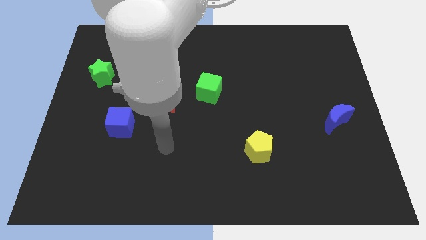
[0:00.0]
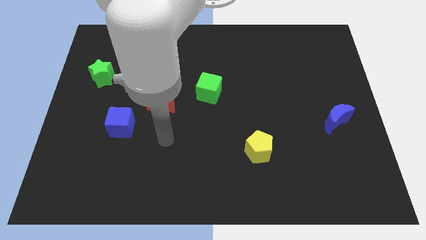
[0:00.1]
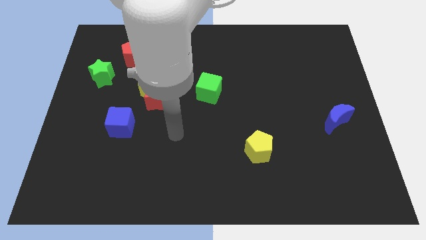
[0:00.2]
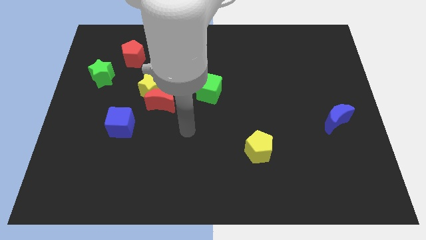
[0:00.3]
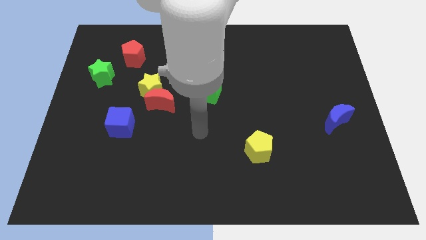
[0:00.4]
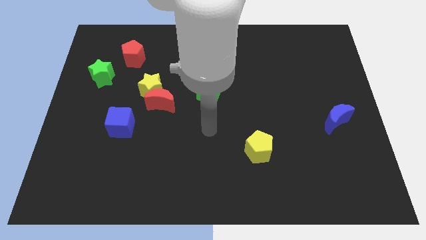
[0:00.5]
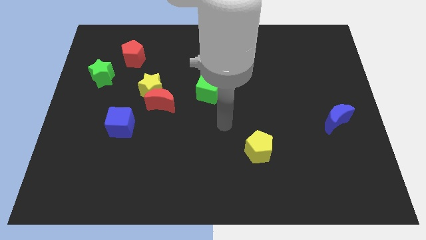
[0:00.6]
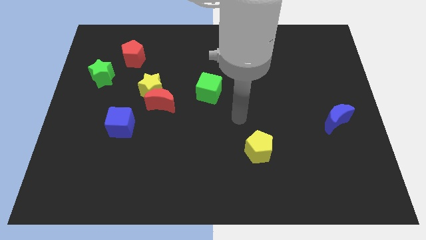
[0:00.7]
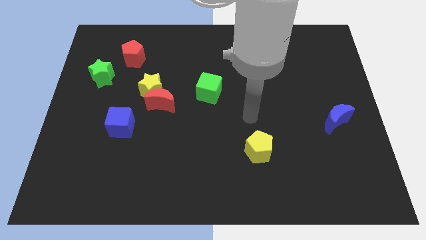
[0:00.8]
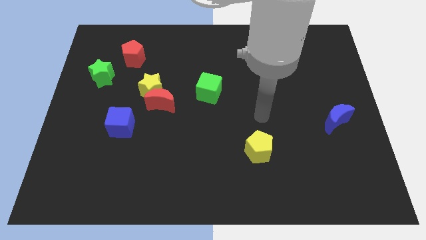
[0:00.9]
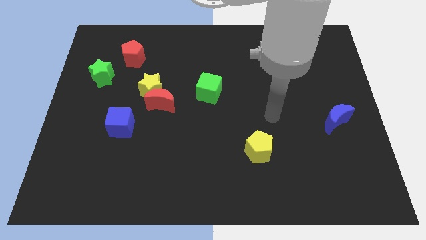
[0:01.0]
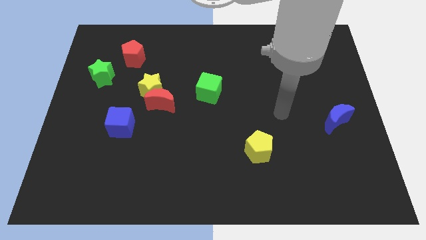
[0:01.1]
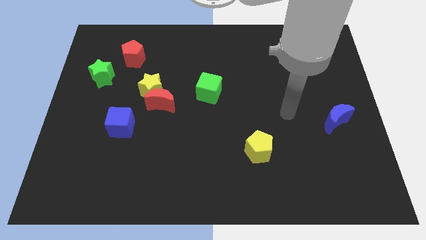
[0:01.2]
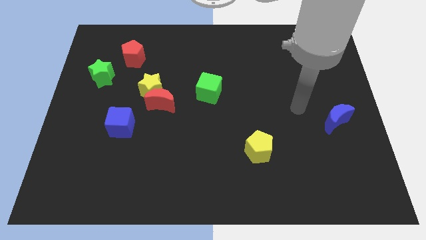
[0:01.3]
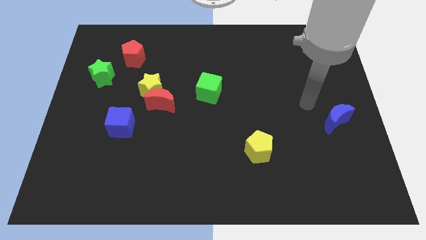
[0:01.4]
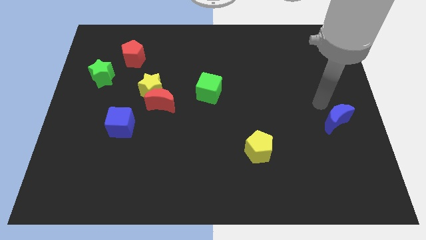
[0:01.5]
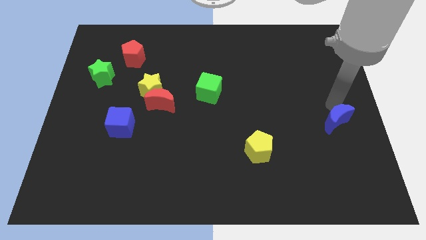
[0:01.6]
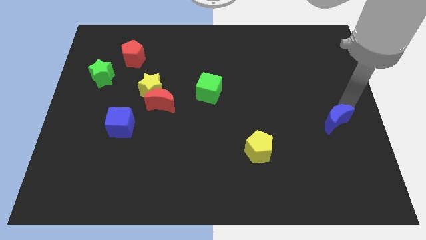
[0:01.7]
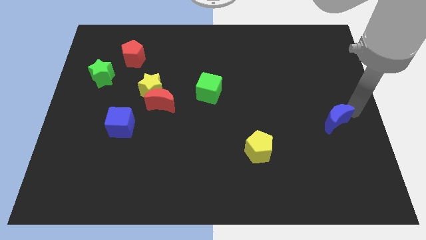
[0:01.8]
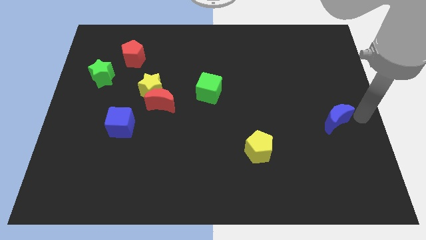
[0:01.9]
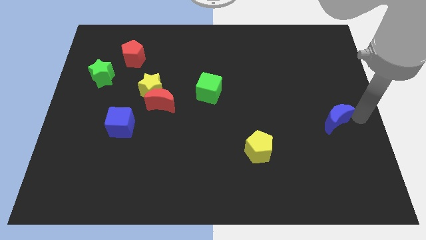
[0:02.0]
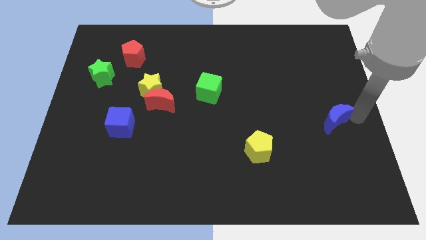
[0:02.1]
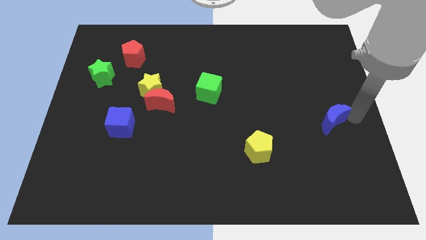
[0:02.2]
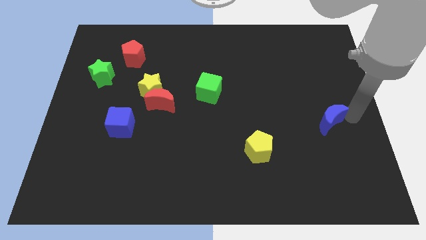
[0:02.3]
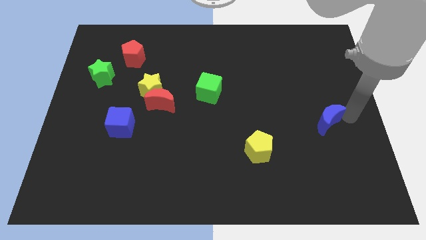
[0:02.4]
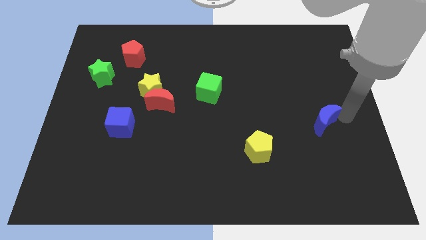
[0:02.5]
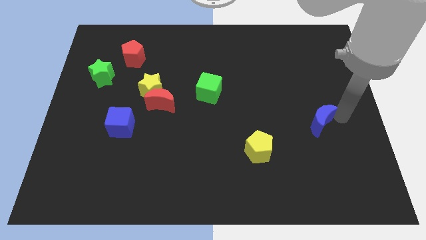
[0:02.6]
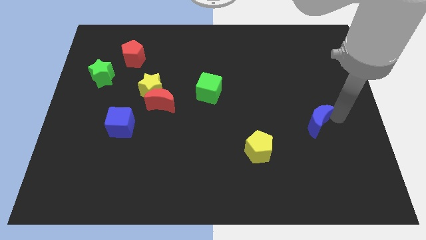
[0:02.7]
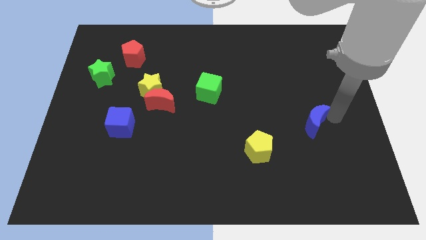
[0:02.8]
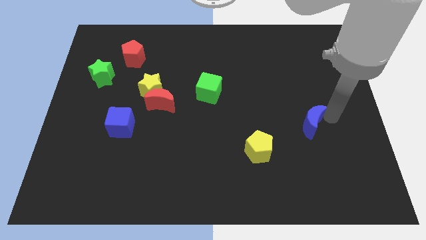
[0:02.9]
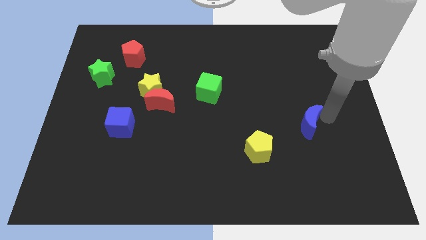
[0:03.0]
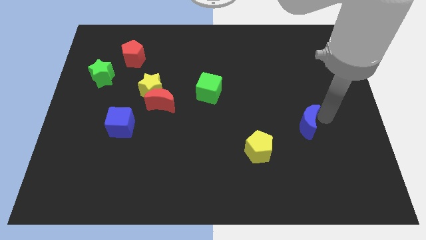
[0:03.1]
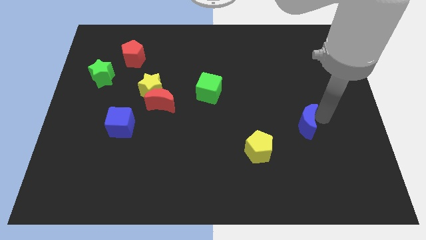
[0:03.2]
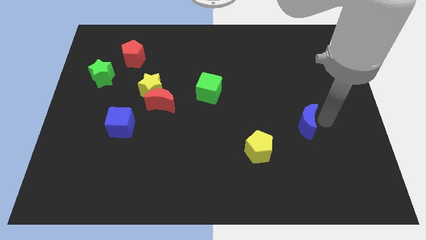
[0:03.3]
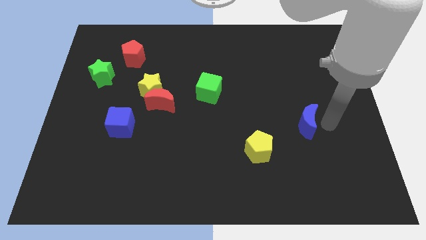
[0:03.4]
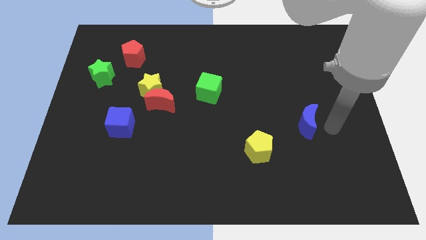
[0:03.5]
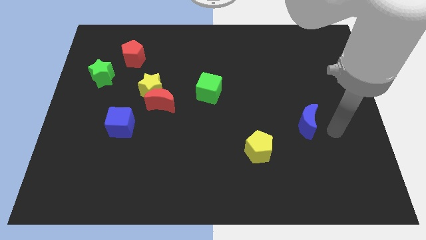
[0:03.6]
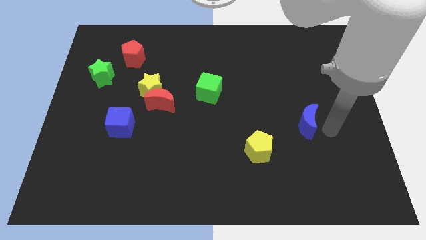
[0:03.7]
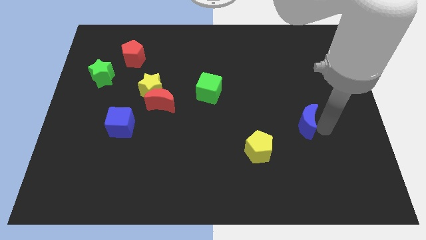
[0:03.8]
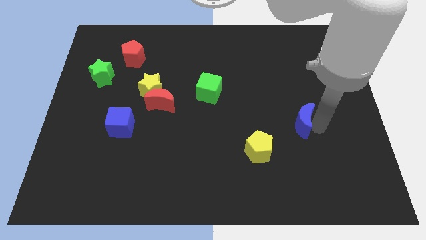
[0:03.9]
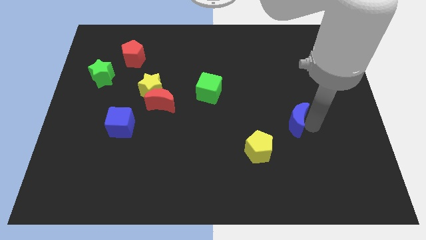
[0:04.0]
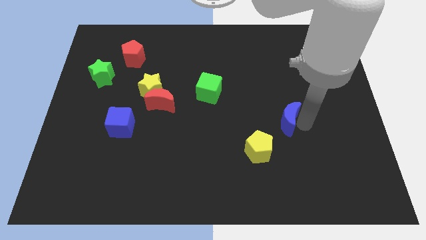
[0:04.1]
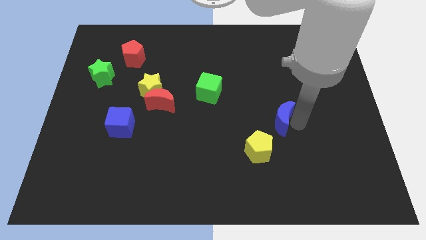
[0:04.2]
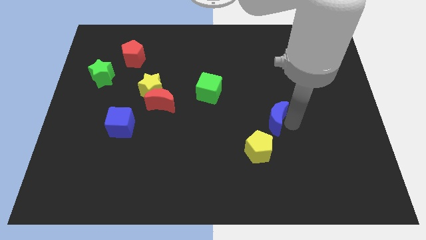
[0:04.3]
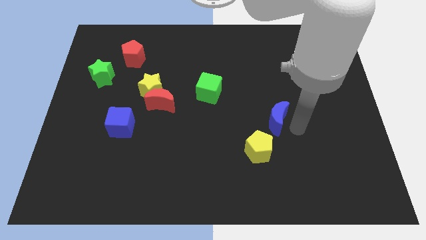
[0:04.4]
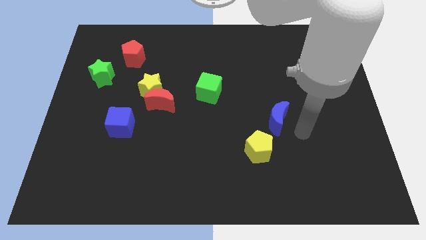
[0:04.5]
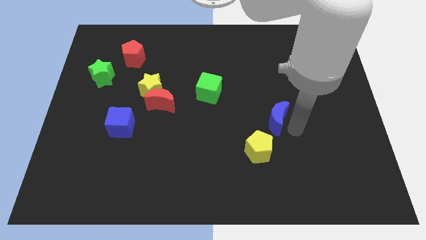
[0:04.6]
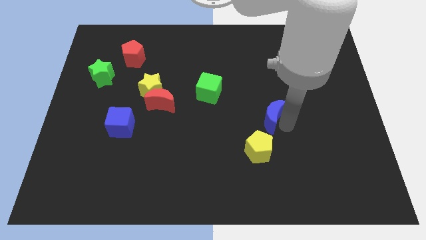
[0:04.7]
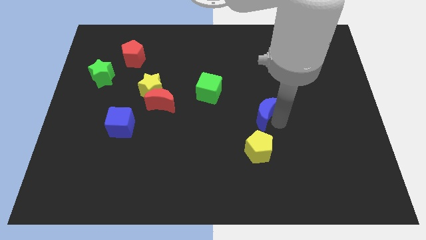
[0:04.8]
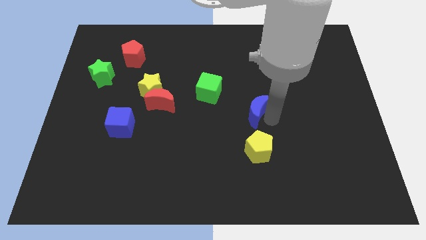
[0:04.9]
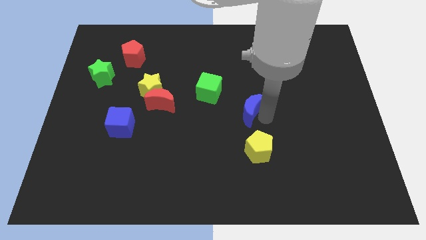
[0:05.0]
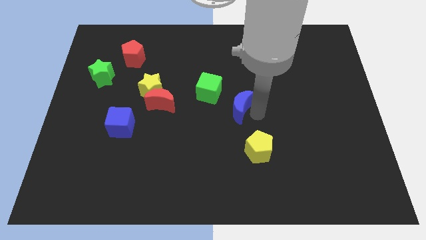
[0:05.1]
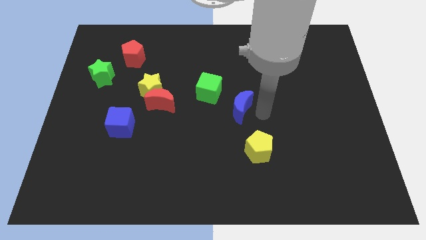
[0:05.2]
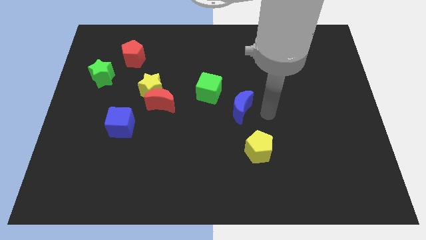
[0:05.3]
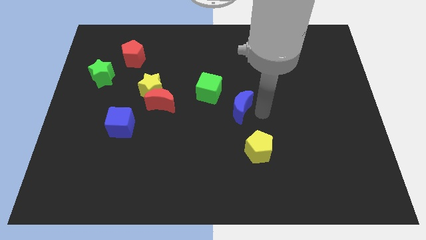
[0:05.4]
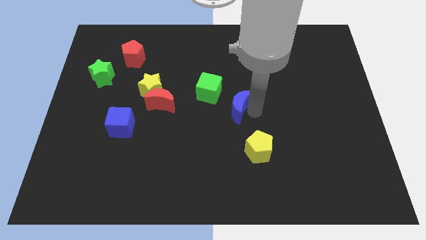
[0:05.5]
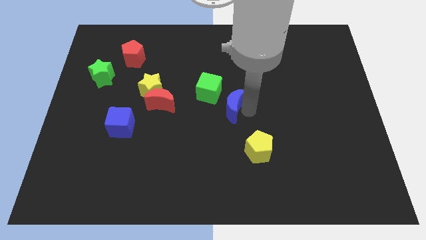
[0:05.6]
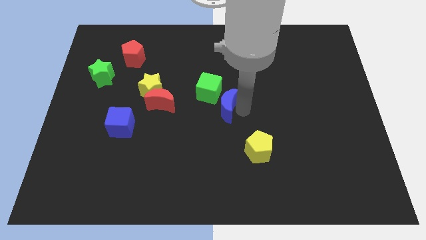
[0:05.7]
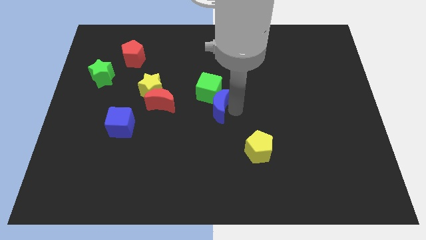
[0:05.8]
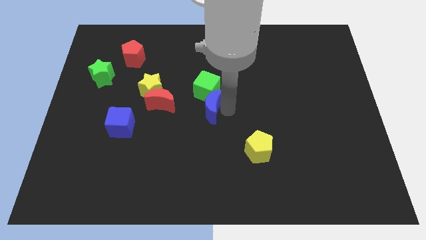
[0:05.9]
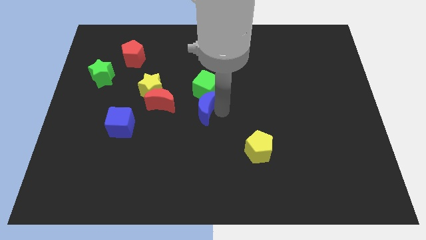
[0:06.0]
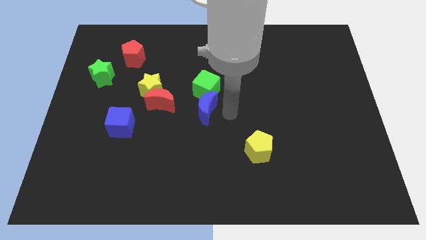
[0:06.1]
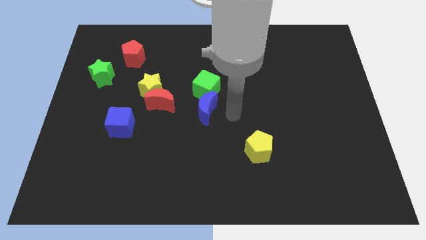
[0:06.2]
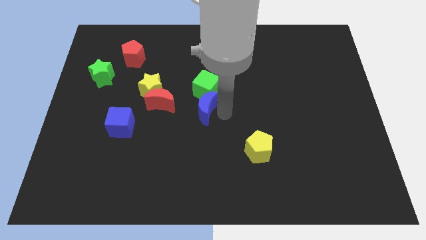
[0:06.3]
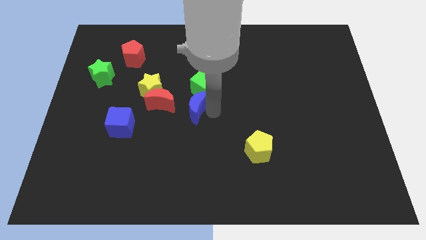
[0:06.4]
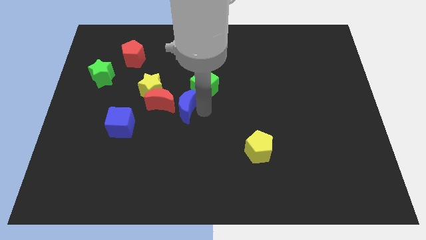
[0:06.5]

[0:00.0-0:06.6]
put the blue moon to the red moon
